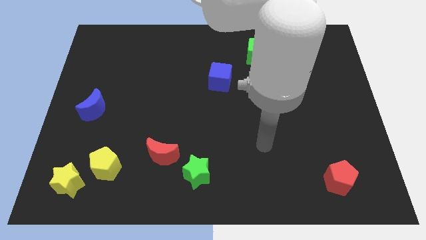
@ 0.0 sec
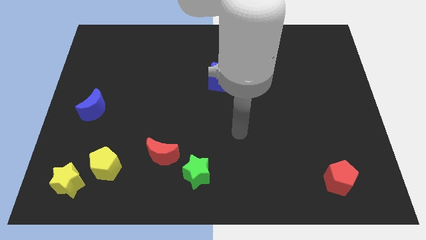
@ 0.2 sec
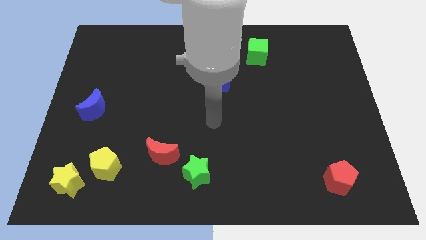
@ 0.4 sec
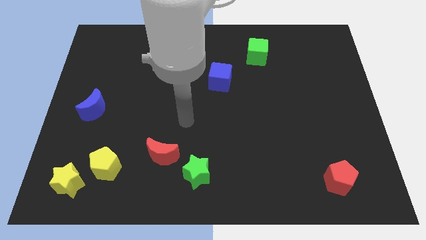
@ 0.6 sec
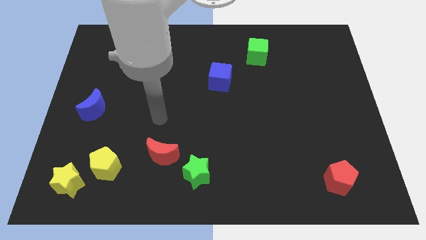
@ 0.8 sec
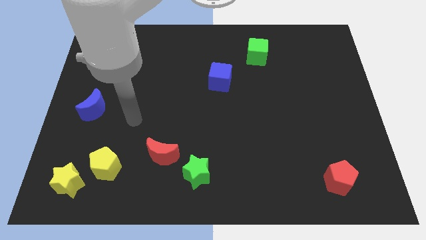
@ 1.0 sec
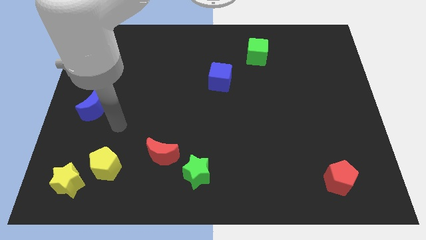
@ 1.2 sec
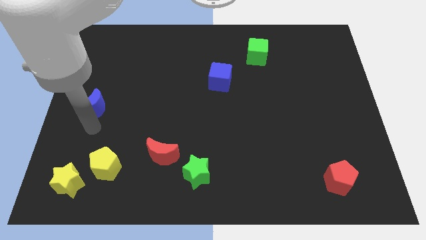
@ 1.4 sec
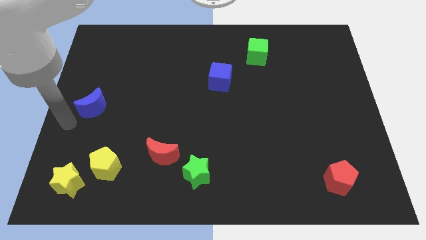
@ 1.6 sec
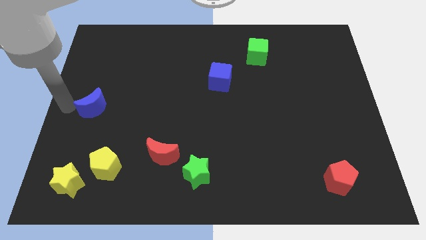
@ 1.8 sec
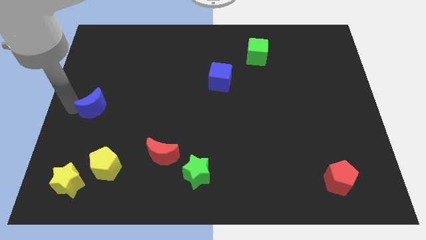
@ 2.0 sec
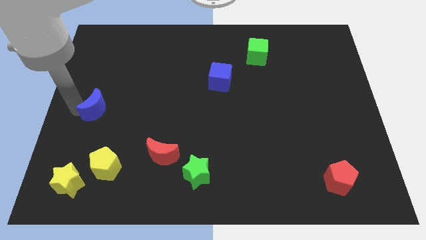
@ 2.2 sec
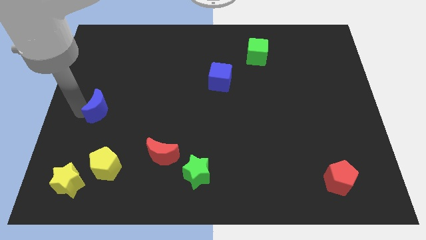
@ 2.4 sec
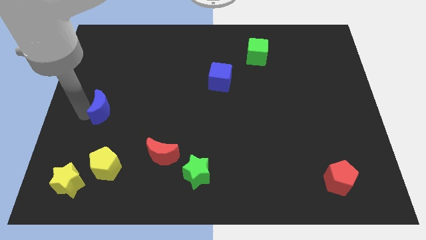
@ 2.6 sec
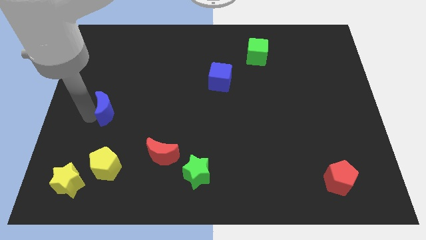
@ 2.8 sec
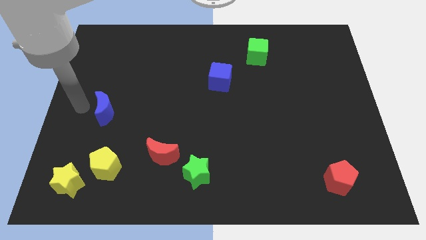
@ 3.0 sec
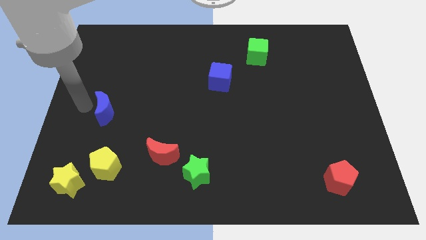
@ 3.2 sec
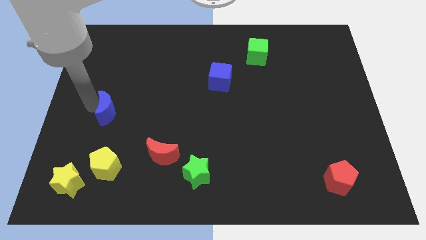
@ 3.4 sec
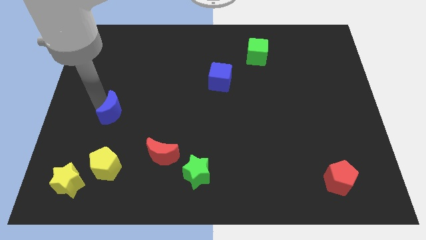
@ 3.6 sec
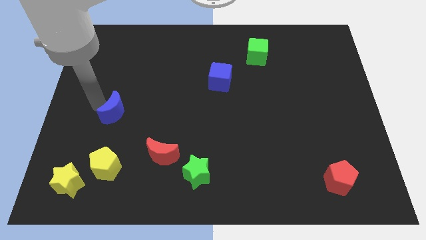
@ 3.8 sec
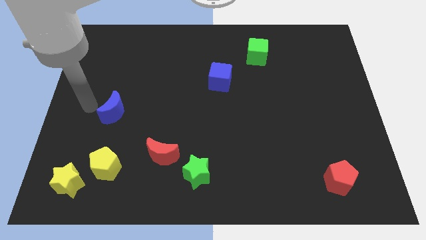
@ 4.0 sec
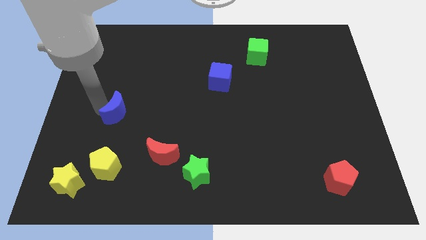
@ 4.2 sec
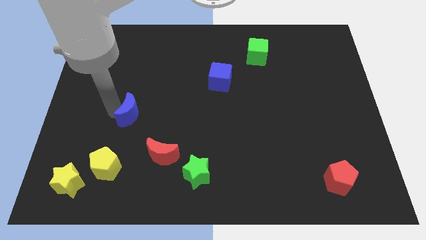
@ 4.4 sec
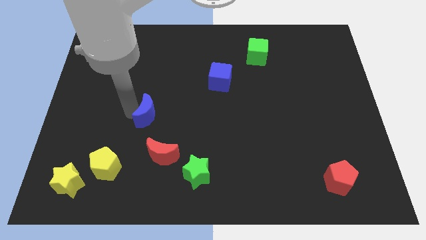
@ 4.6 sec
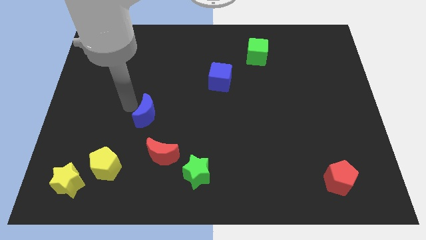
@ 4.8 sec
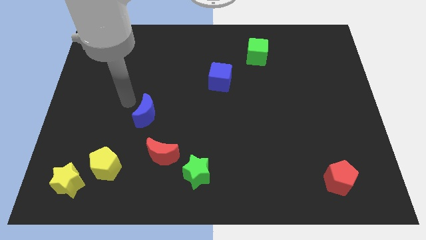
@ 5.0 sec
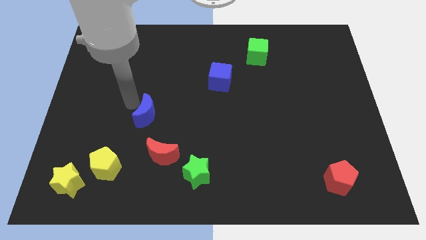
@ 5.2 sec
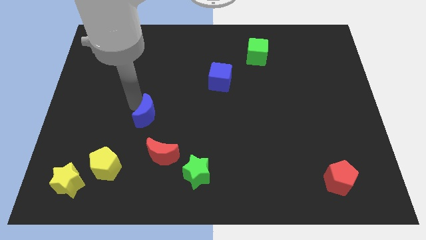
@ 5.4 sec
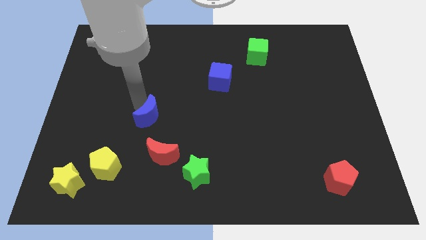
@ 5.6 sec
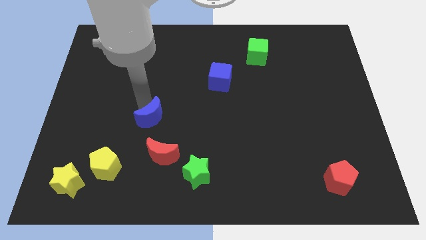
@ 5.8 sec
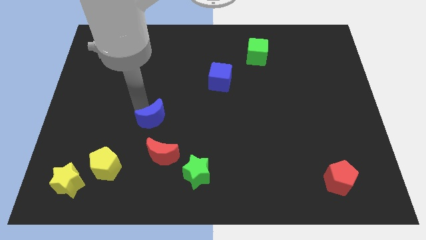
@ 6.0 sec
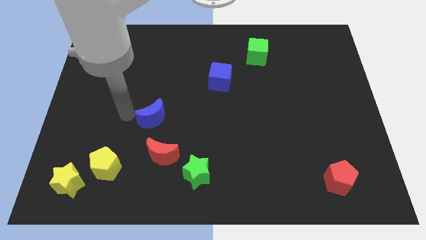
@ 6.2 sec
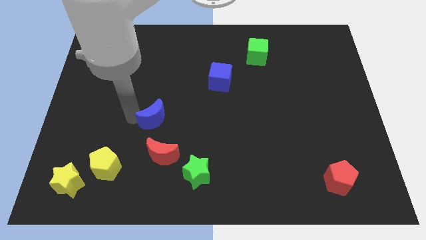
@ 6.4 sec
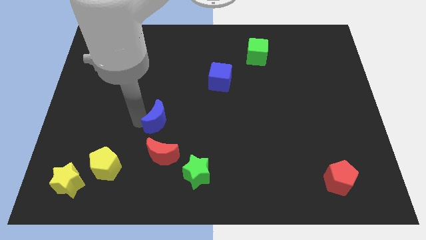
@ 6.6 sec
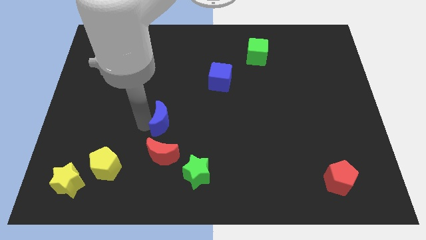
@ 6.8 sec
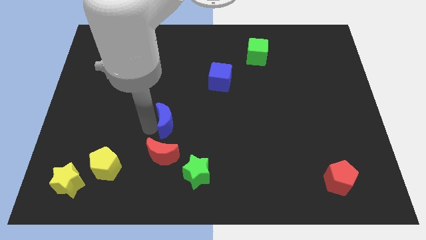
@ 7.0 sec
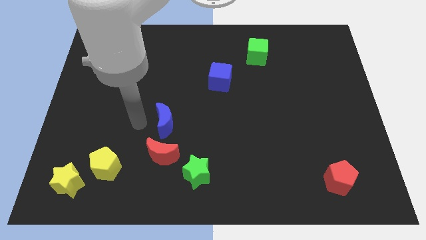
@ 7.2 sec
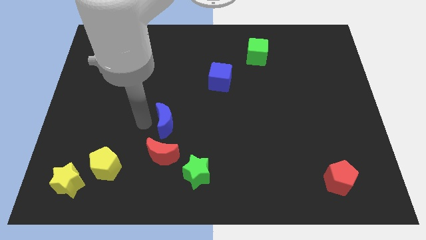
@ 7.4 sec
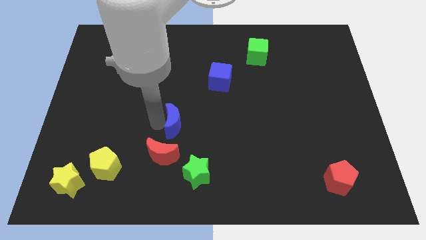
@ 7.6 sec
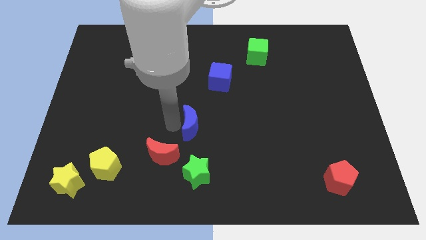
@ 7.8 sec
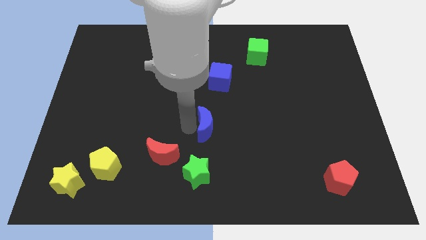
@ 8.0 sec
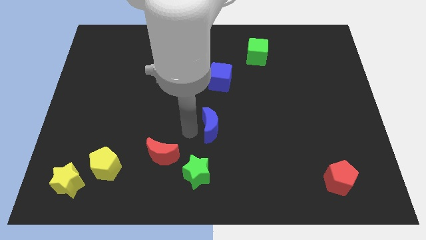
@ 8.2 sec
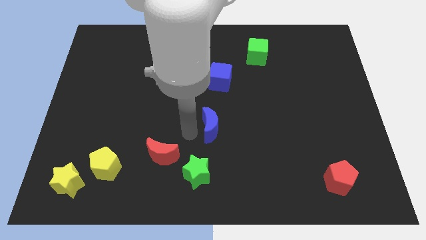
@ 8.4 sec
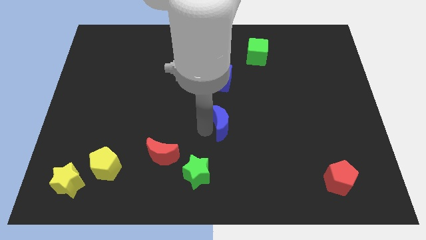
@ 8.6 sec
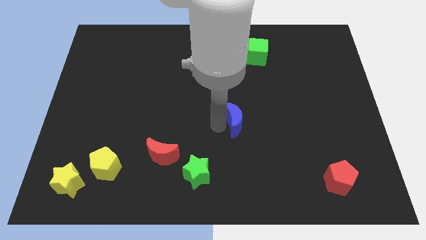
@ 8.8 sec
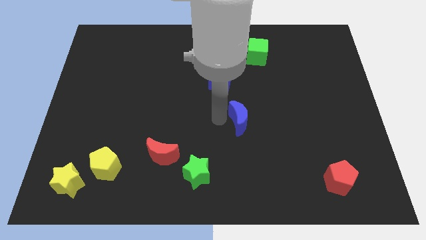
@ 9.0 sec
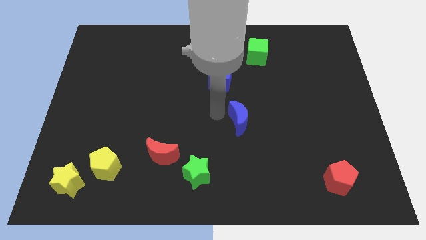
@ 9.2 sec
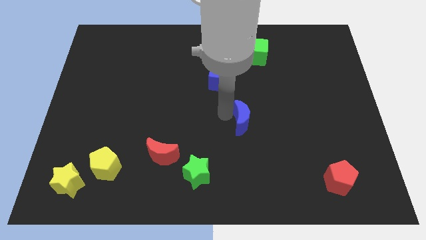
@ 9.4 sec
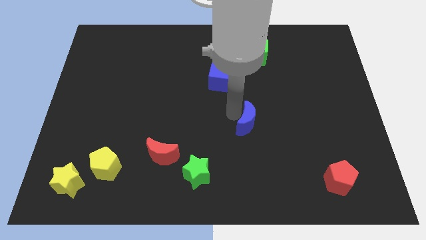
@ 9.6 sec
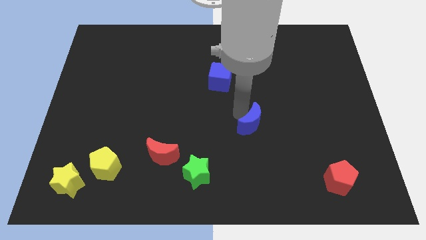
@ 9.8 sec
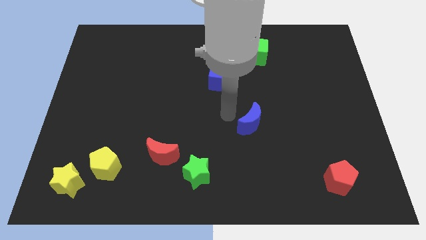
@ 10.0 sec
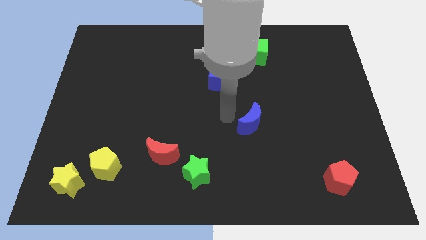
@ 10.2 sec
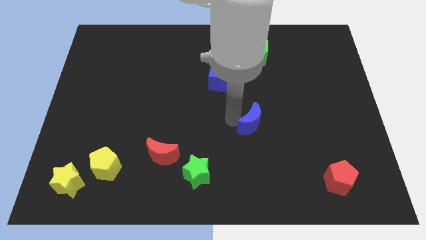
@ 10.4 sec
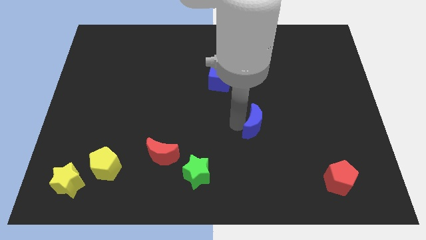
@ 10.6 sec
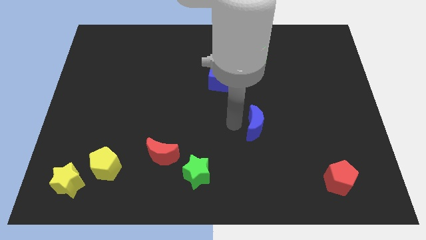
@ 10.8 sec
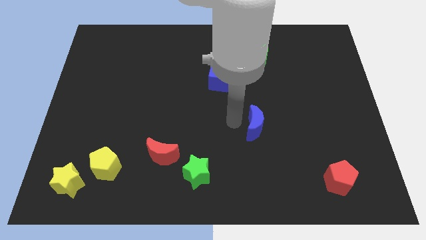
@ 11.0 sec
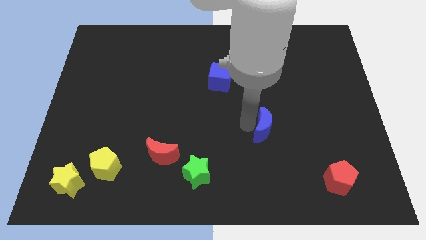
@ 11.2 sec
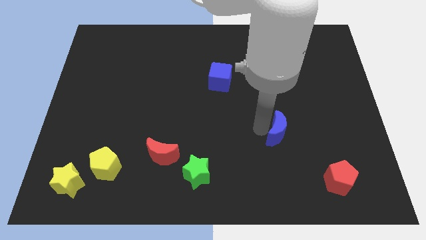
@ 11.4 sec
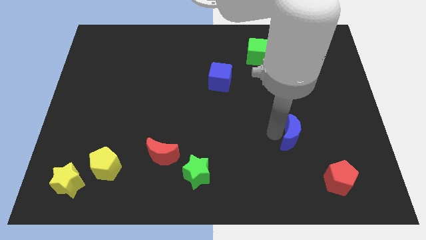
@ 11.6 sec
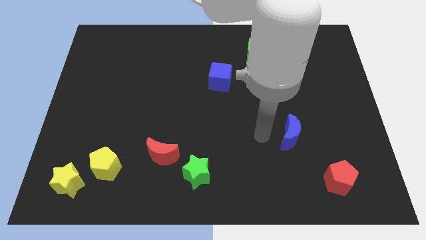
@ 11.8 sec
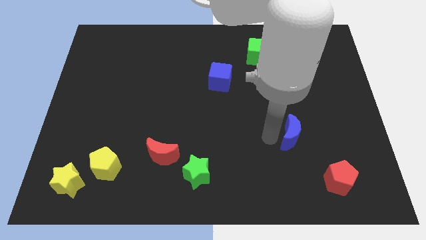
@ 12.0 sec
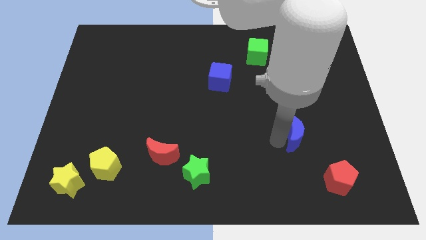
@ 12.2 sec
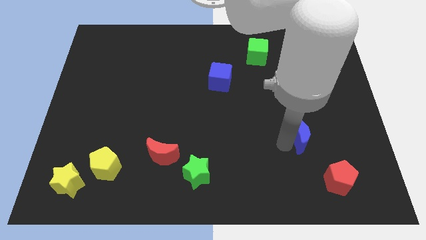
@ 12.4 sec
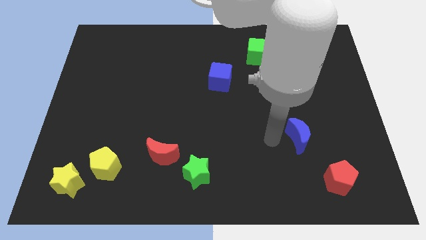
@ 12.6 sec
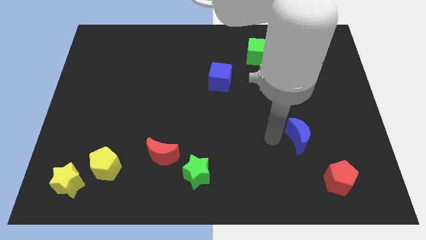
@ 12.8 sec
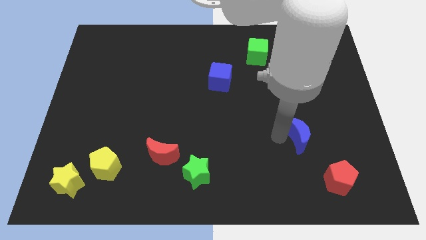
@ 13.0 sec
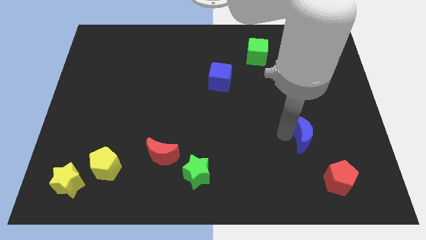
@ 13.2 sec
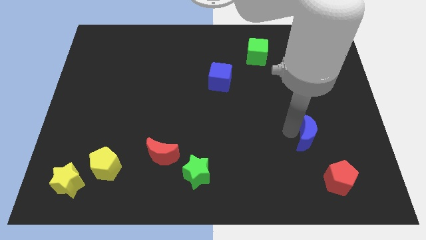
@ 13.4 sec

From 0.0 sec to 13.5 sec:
push the blue moon to the top side of the red pentagon
